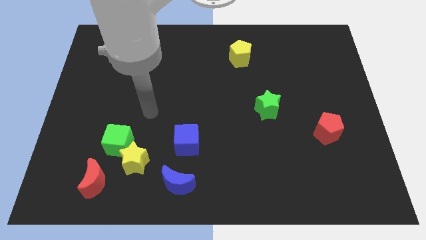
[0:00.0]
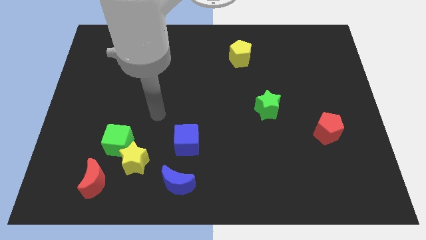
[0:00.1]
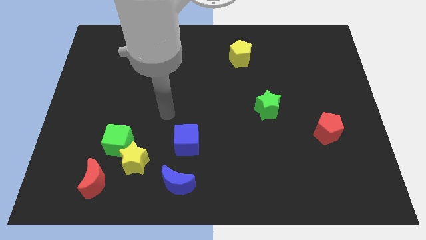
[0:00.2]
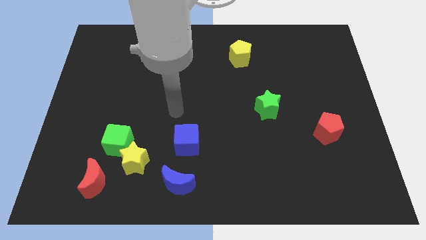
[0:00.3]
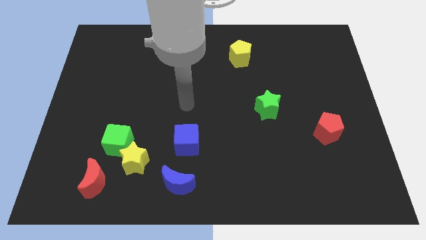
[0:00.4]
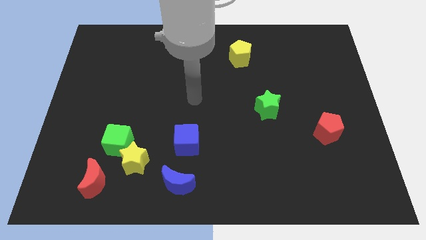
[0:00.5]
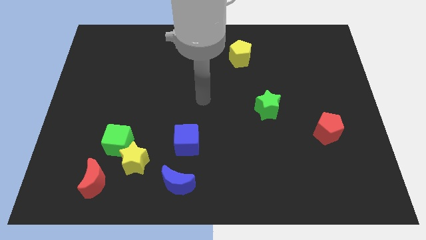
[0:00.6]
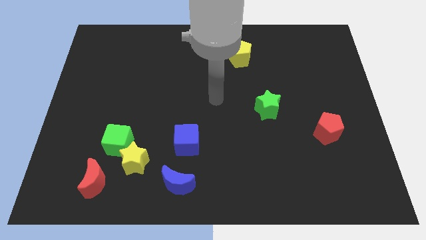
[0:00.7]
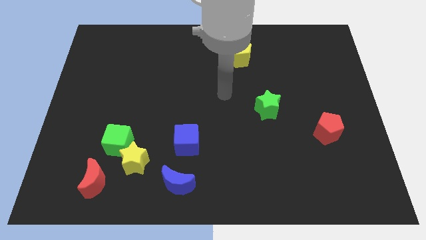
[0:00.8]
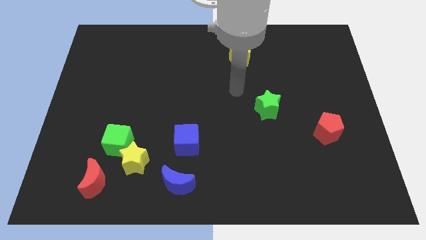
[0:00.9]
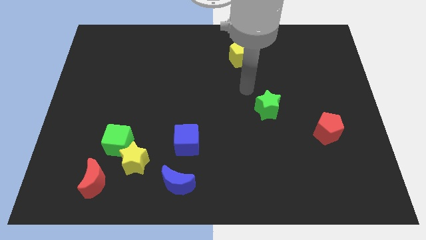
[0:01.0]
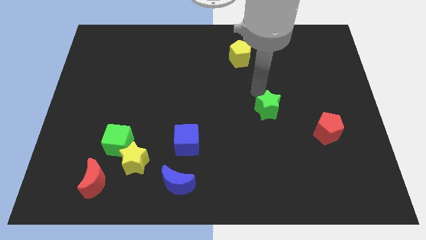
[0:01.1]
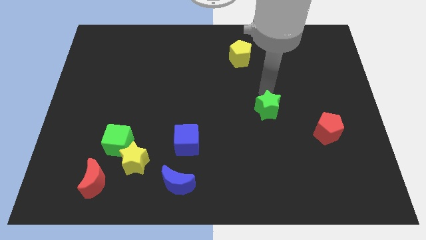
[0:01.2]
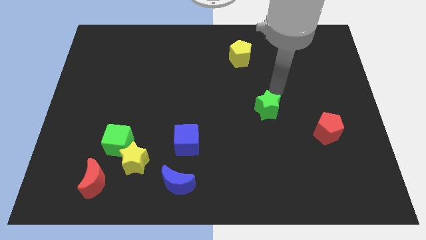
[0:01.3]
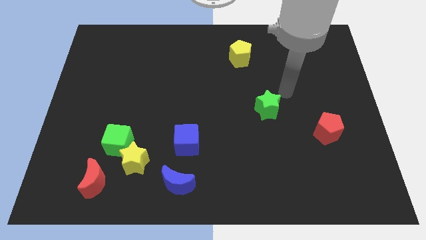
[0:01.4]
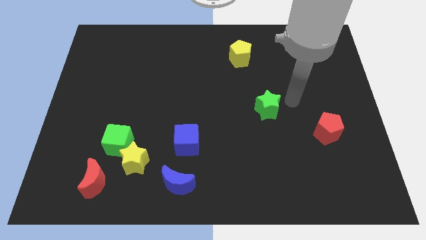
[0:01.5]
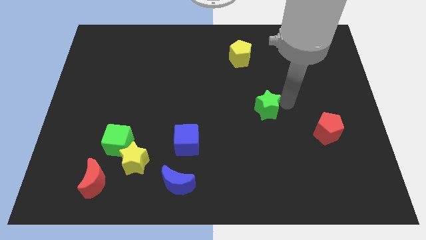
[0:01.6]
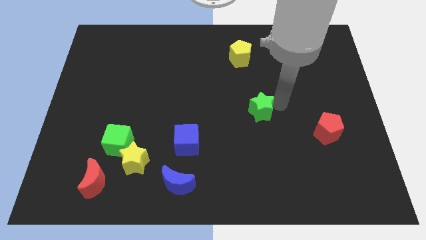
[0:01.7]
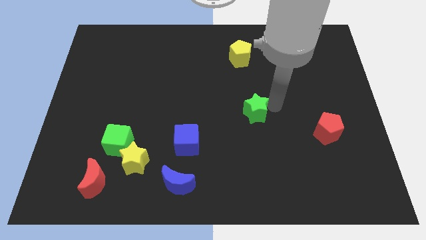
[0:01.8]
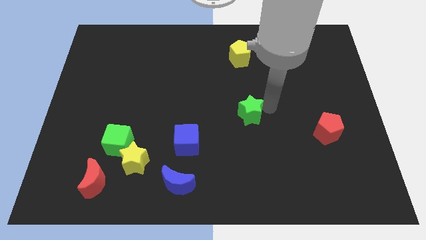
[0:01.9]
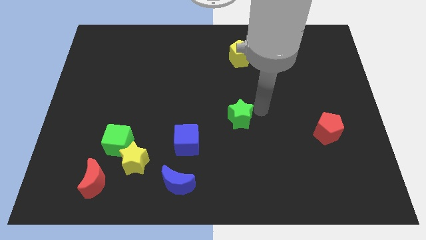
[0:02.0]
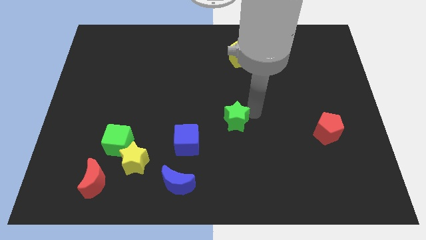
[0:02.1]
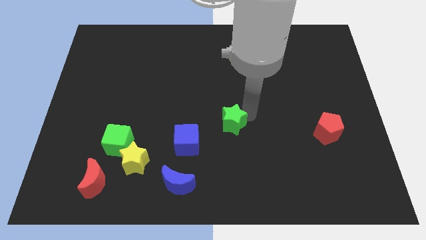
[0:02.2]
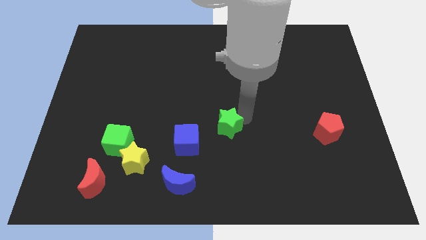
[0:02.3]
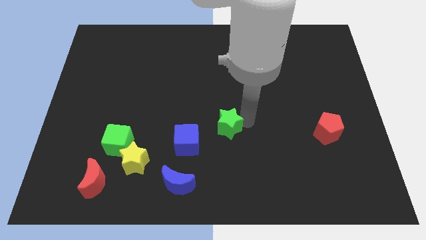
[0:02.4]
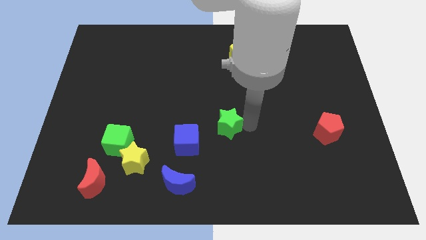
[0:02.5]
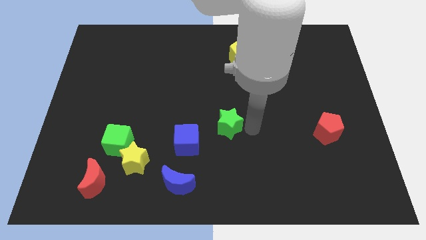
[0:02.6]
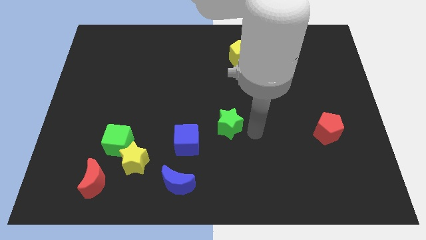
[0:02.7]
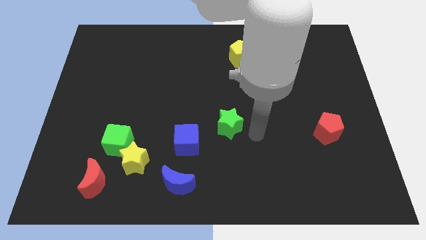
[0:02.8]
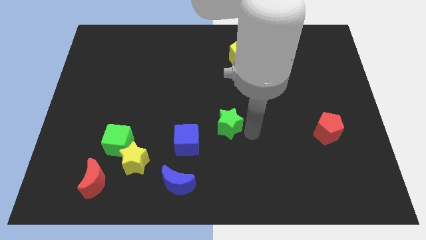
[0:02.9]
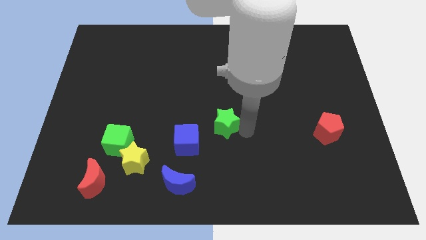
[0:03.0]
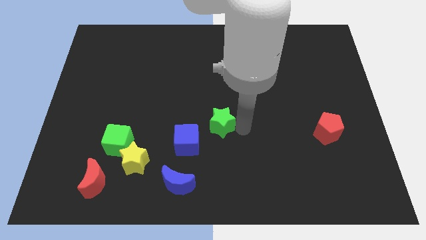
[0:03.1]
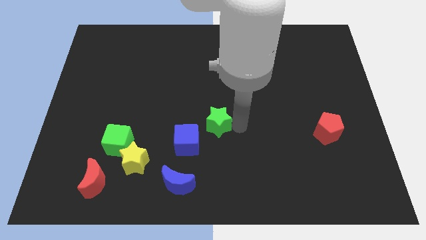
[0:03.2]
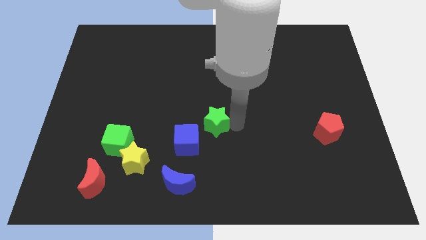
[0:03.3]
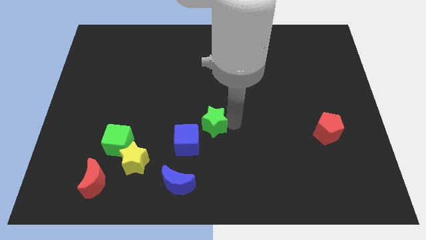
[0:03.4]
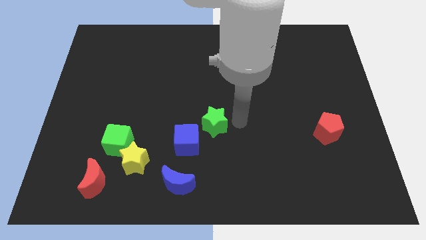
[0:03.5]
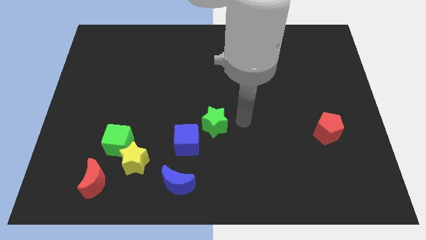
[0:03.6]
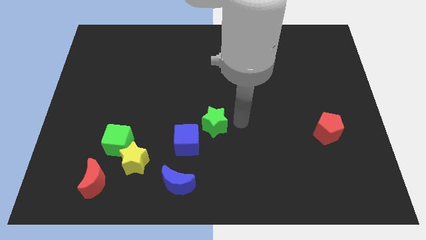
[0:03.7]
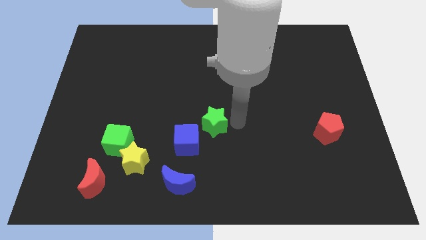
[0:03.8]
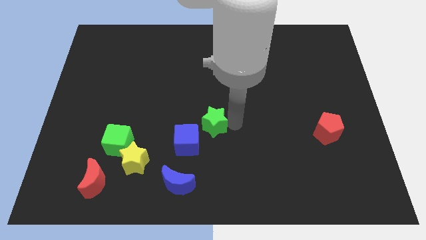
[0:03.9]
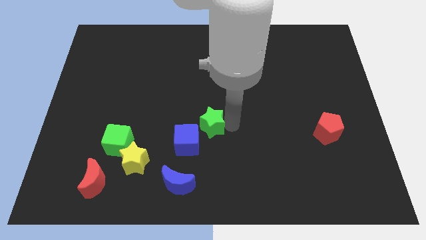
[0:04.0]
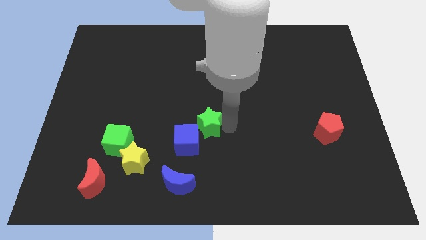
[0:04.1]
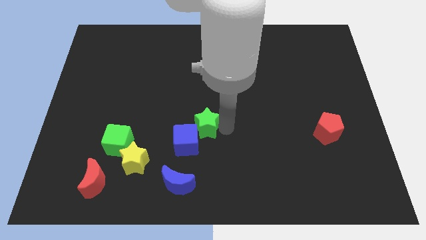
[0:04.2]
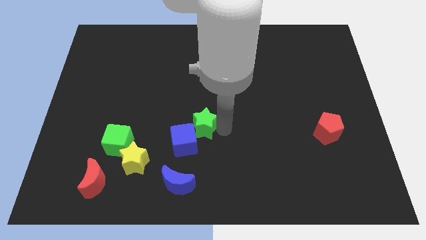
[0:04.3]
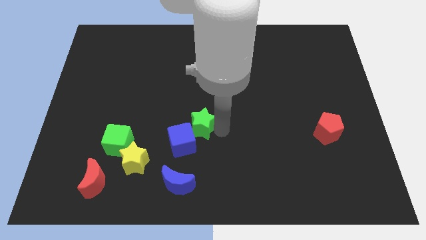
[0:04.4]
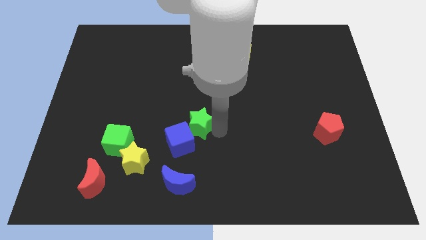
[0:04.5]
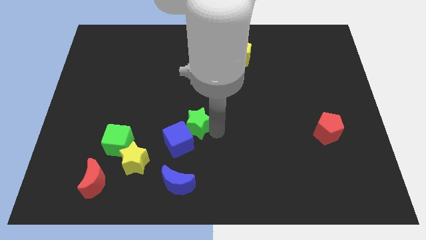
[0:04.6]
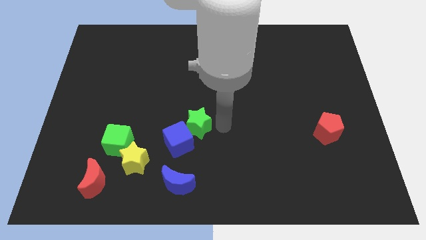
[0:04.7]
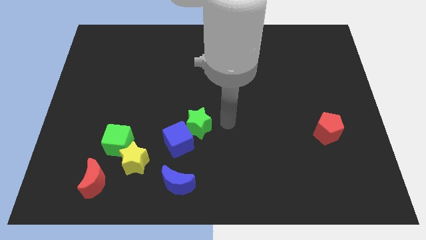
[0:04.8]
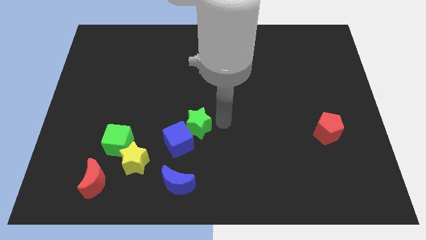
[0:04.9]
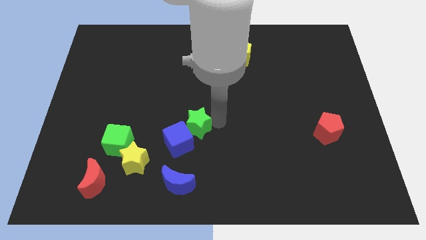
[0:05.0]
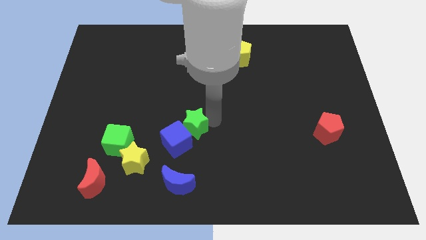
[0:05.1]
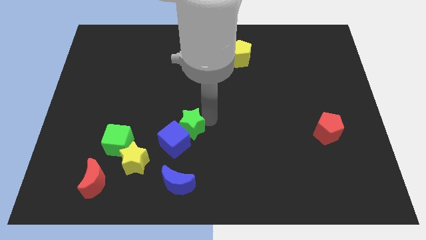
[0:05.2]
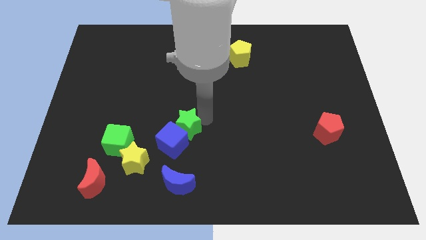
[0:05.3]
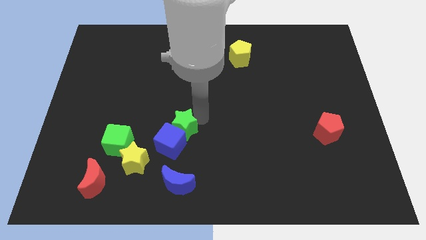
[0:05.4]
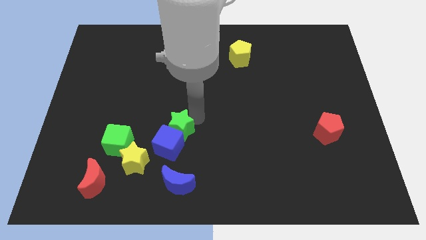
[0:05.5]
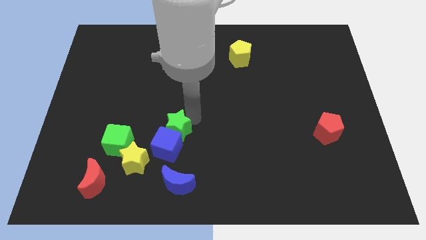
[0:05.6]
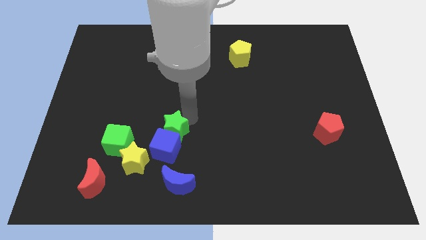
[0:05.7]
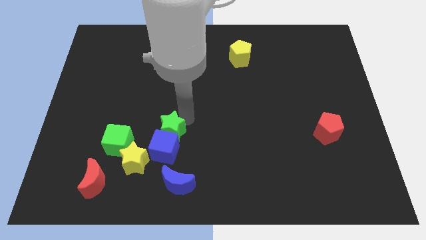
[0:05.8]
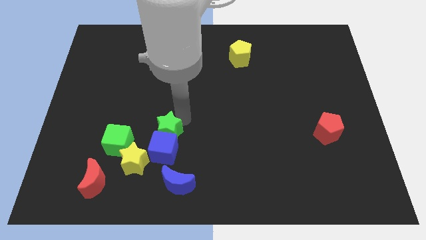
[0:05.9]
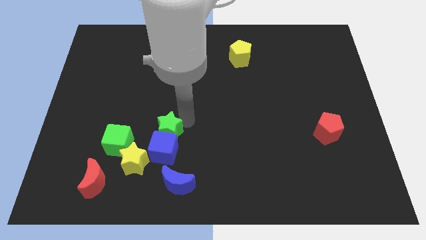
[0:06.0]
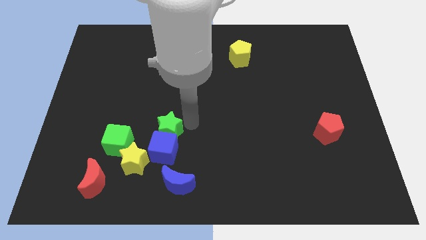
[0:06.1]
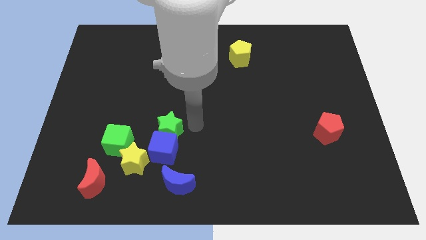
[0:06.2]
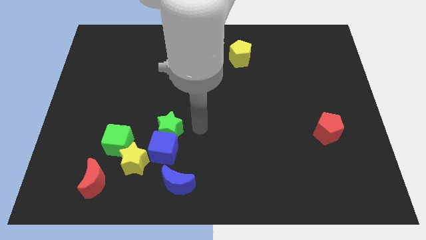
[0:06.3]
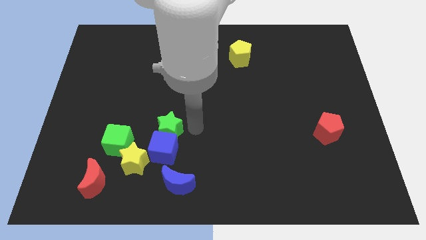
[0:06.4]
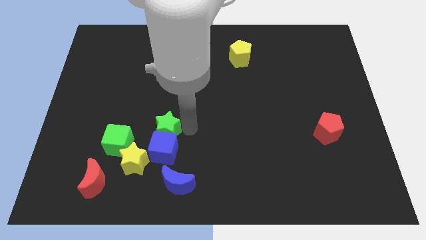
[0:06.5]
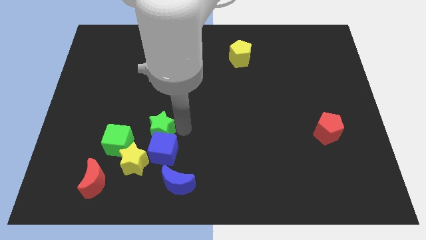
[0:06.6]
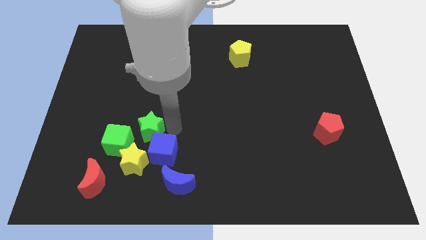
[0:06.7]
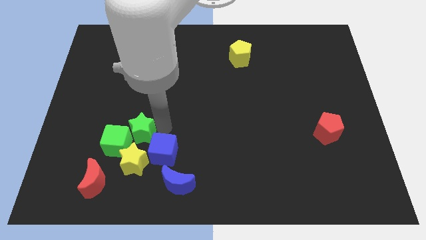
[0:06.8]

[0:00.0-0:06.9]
put the green star close to the green cube

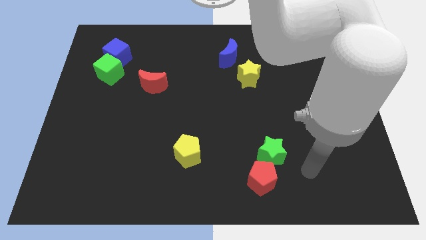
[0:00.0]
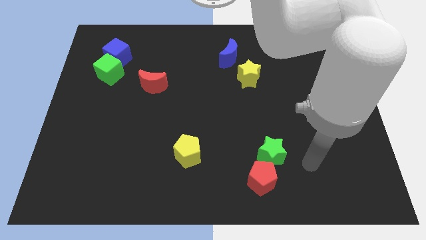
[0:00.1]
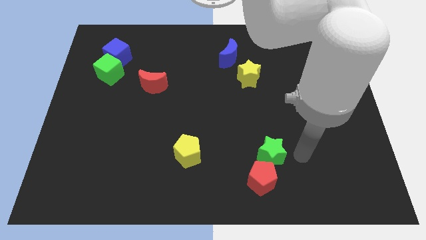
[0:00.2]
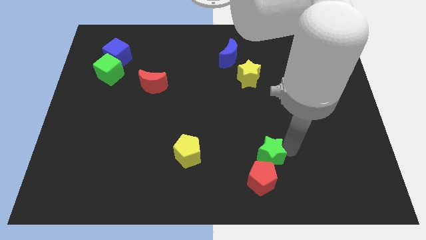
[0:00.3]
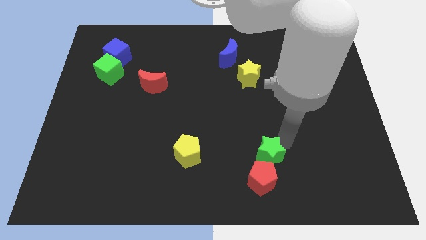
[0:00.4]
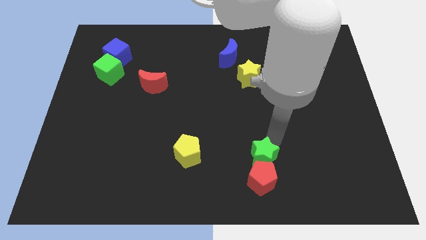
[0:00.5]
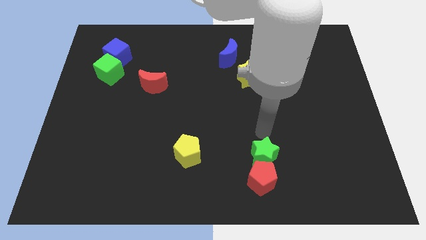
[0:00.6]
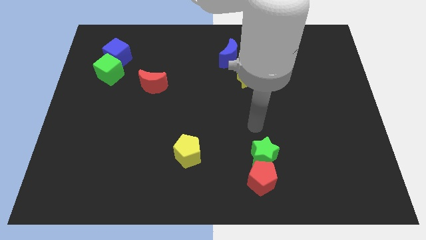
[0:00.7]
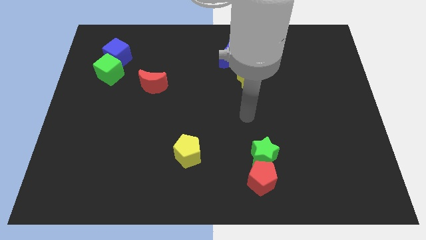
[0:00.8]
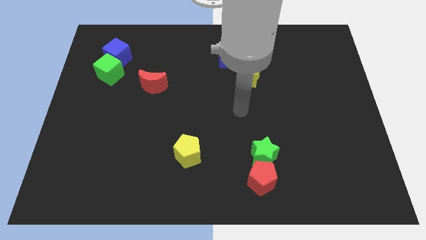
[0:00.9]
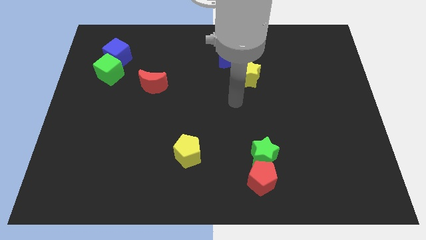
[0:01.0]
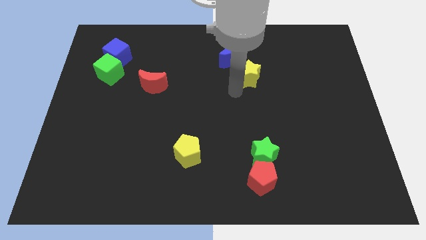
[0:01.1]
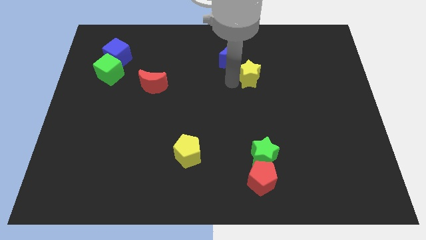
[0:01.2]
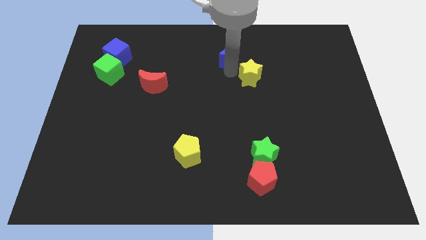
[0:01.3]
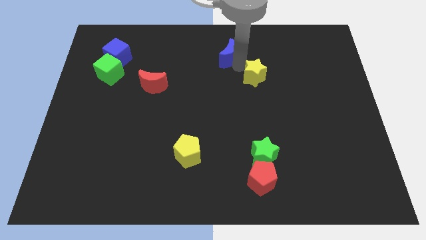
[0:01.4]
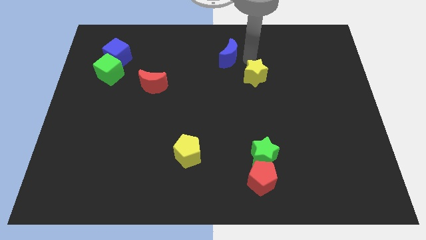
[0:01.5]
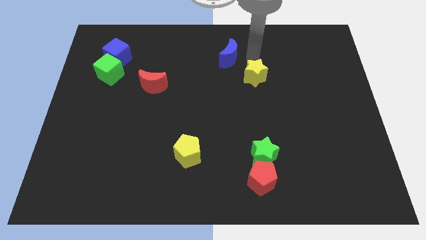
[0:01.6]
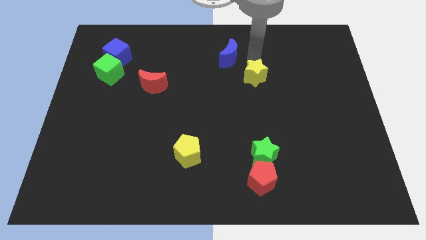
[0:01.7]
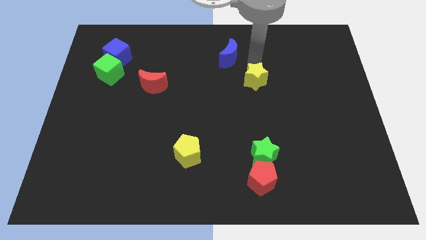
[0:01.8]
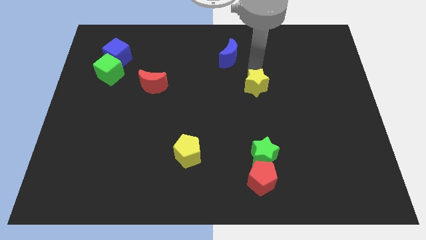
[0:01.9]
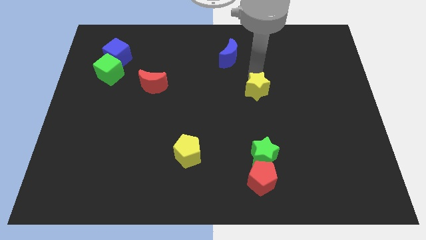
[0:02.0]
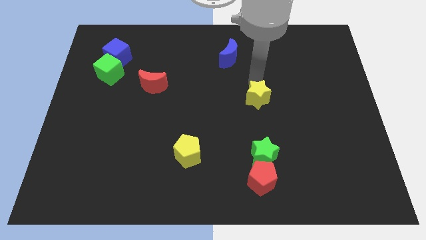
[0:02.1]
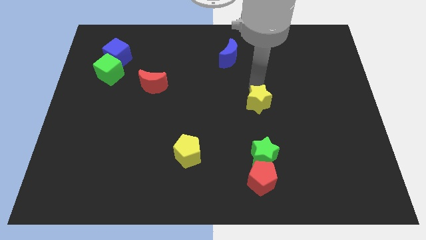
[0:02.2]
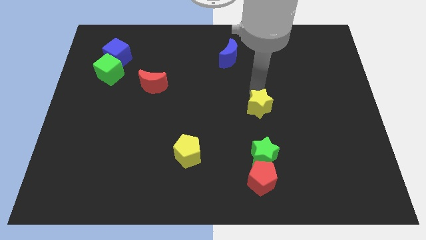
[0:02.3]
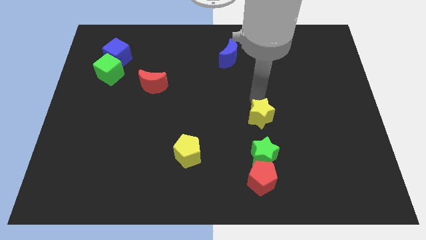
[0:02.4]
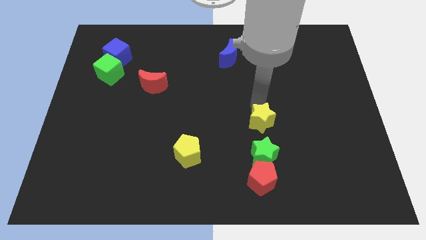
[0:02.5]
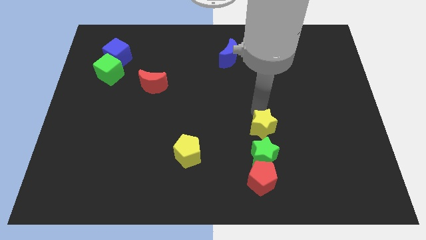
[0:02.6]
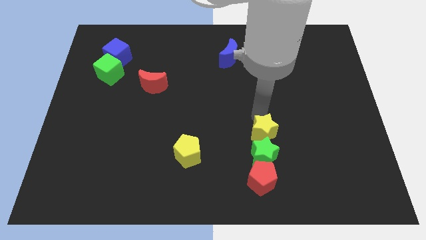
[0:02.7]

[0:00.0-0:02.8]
move the yellow star to the green star
